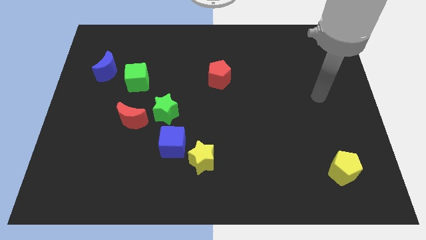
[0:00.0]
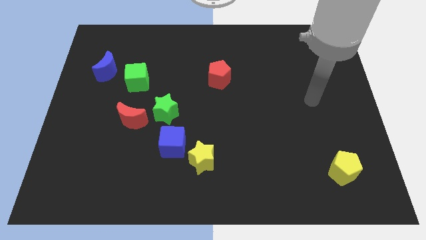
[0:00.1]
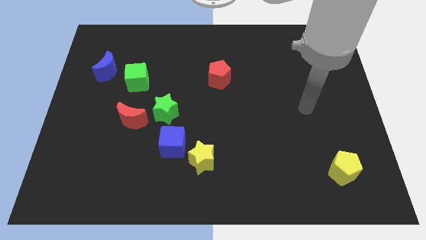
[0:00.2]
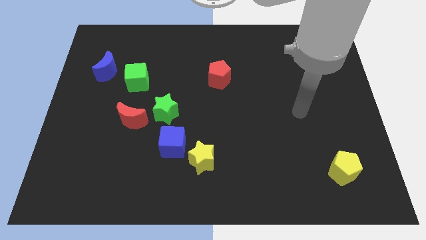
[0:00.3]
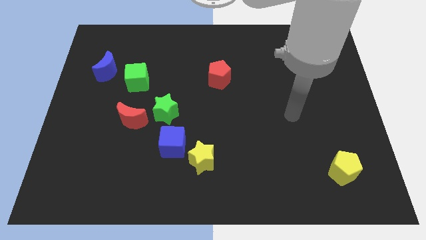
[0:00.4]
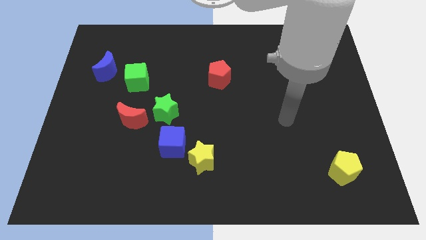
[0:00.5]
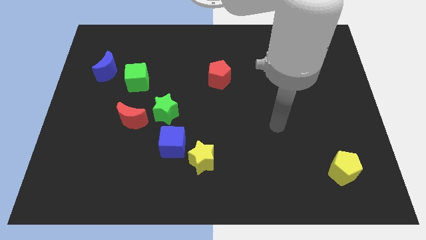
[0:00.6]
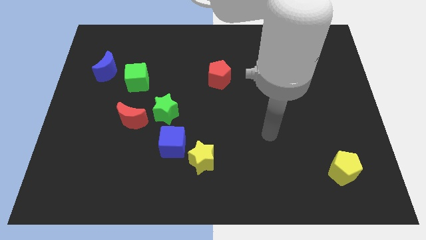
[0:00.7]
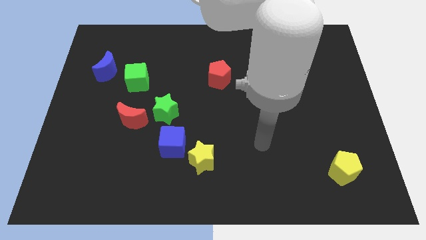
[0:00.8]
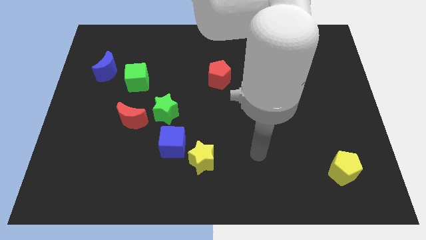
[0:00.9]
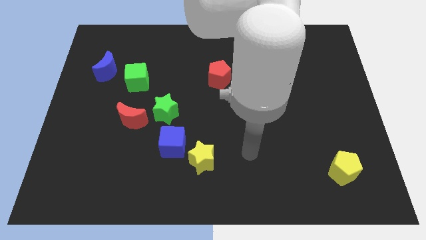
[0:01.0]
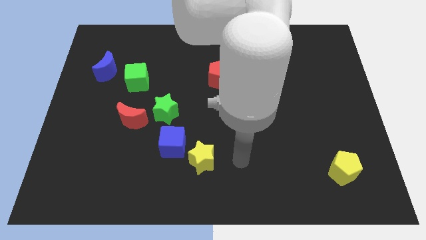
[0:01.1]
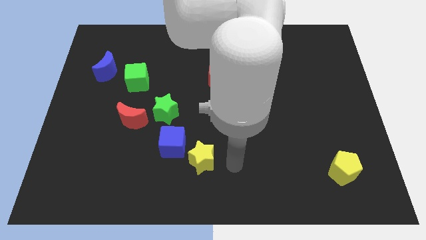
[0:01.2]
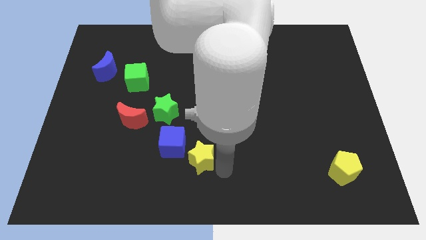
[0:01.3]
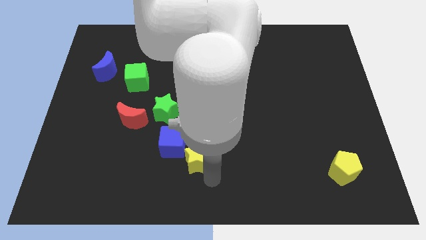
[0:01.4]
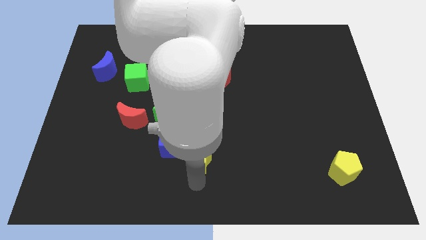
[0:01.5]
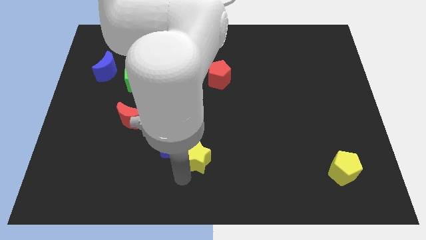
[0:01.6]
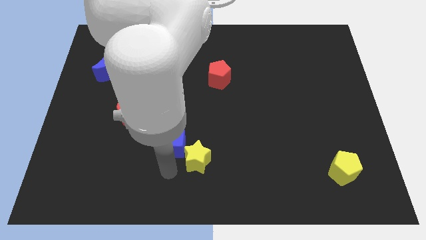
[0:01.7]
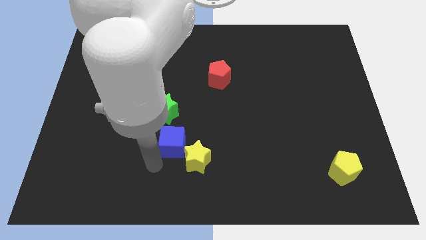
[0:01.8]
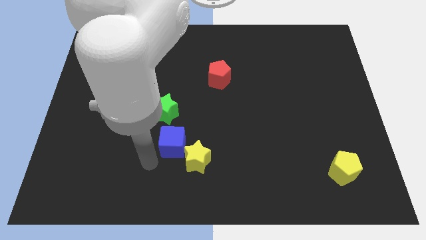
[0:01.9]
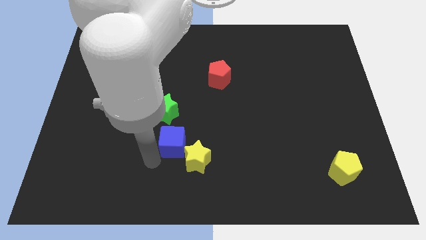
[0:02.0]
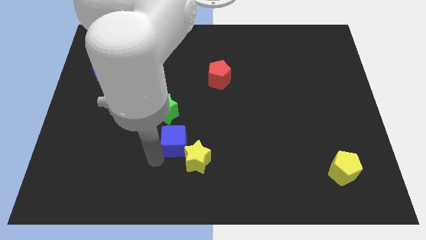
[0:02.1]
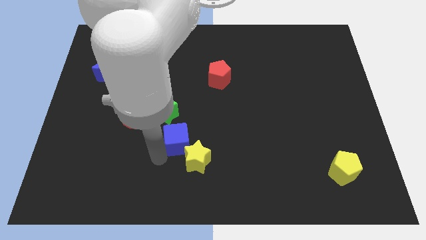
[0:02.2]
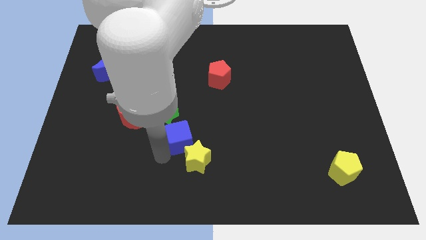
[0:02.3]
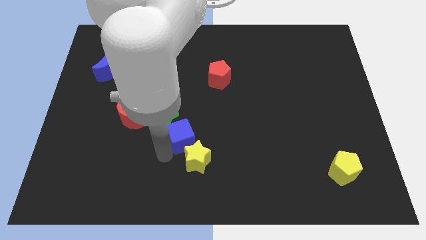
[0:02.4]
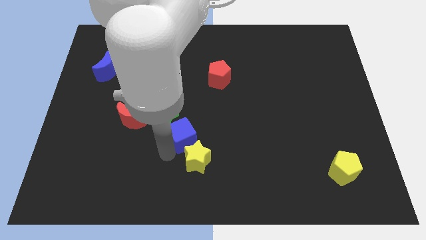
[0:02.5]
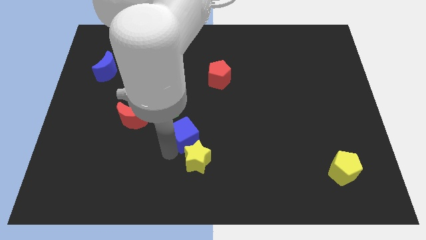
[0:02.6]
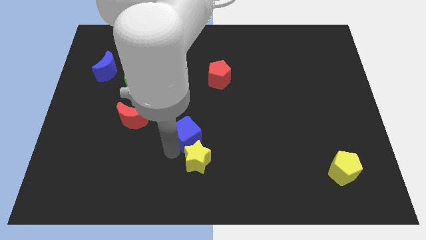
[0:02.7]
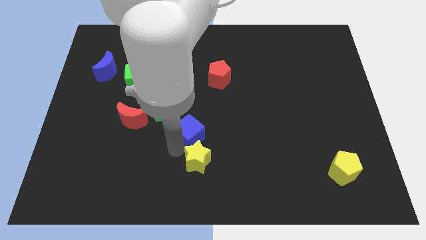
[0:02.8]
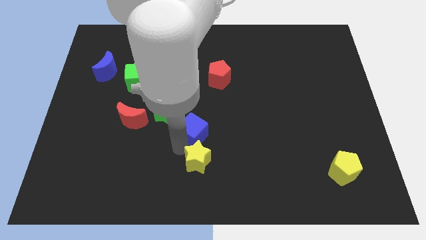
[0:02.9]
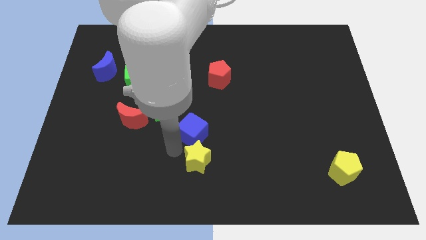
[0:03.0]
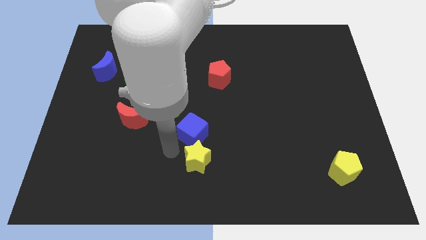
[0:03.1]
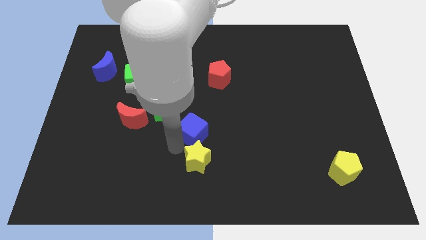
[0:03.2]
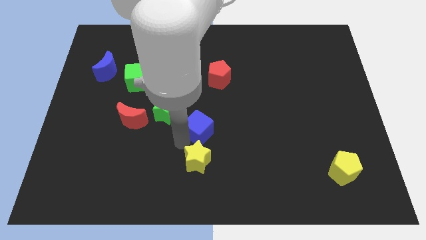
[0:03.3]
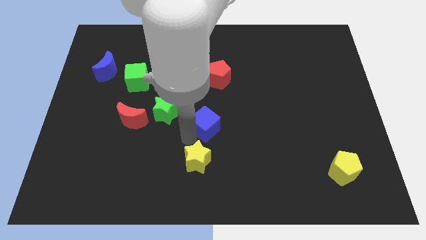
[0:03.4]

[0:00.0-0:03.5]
slightly slide the blue cube diagonally upwards and right

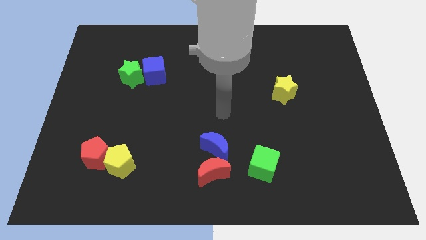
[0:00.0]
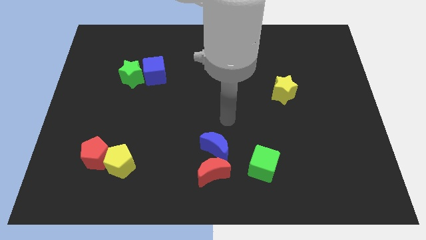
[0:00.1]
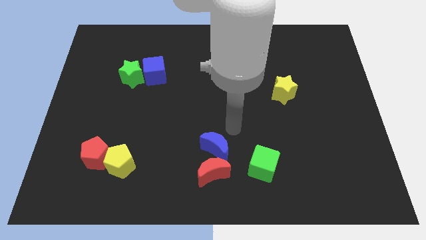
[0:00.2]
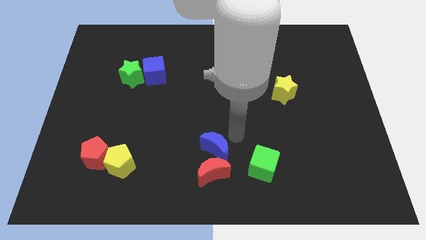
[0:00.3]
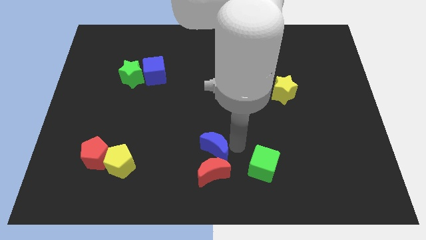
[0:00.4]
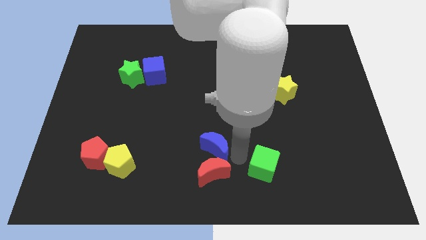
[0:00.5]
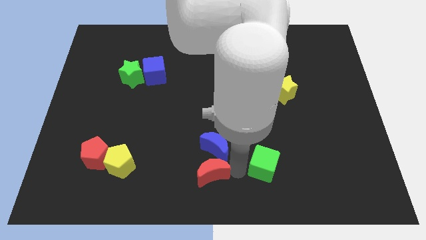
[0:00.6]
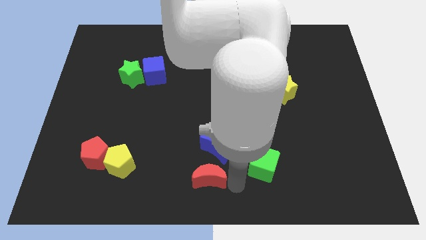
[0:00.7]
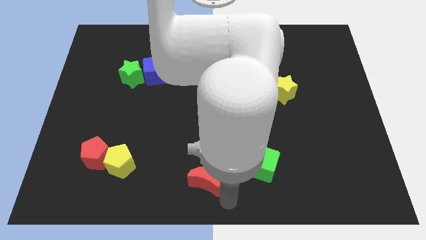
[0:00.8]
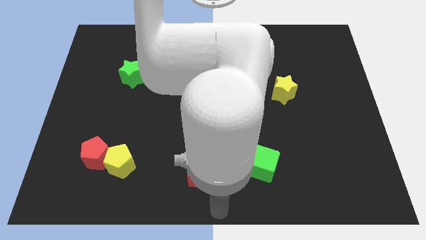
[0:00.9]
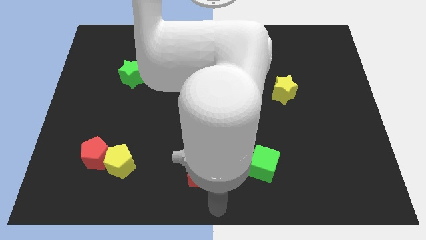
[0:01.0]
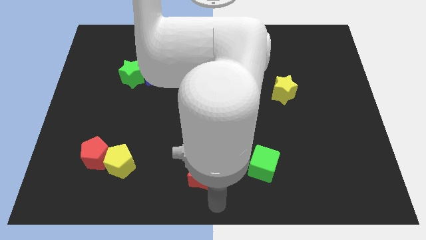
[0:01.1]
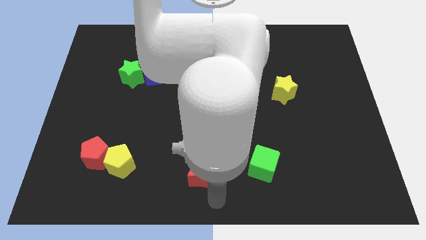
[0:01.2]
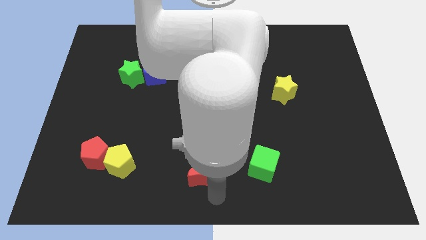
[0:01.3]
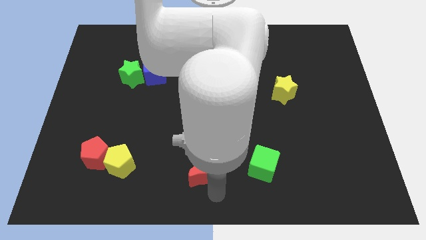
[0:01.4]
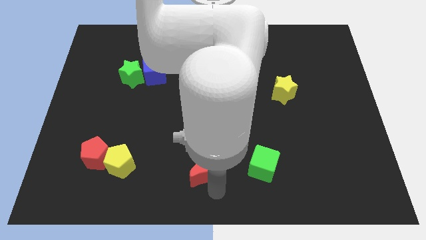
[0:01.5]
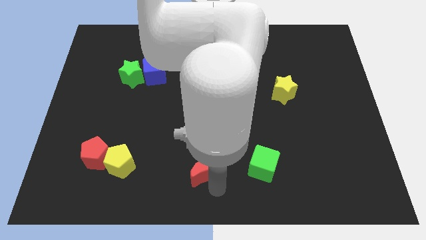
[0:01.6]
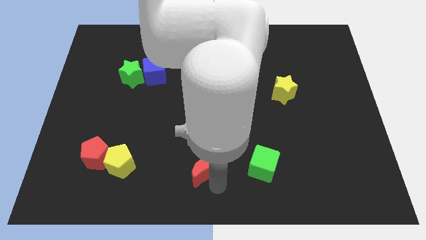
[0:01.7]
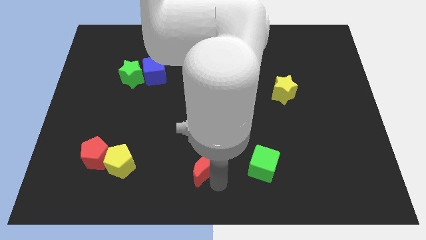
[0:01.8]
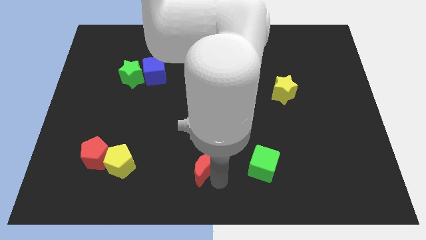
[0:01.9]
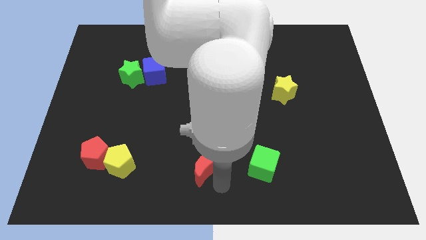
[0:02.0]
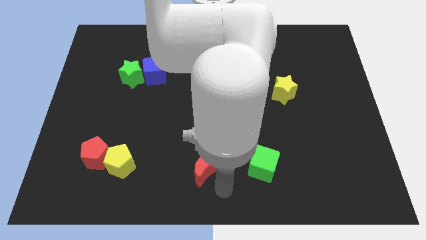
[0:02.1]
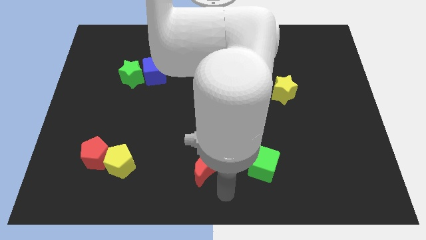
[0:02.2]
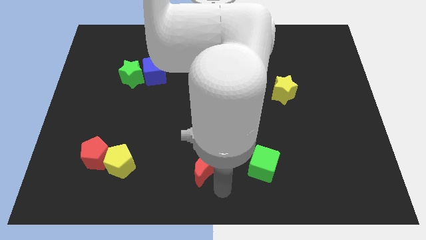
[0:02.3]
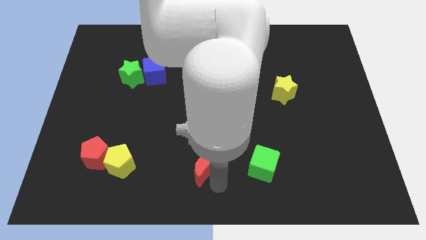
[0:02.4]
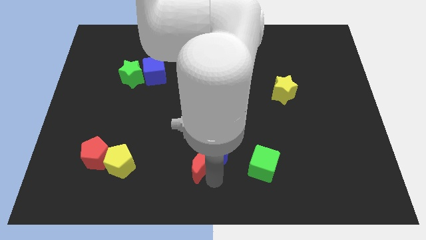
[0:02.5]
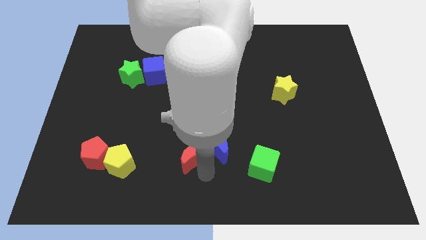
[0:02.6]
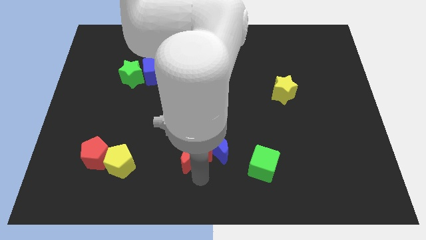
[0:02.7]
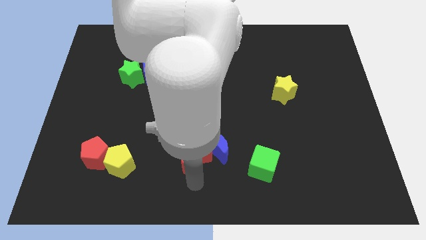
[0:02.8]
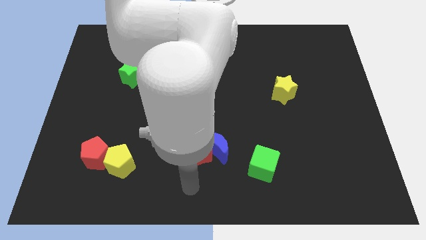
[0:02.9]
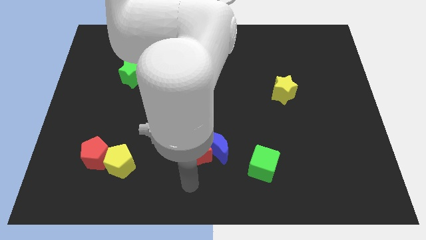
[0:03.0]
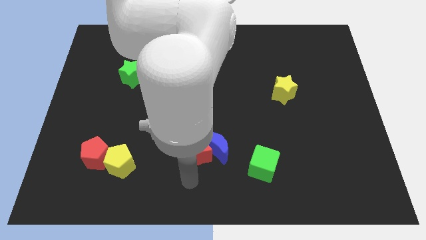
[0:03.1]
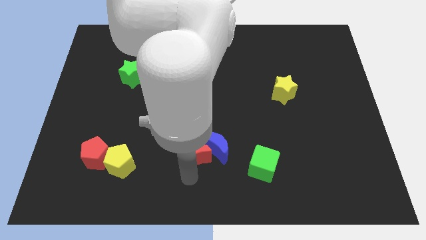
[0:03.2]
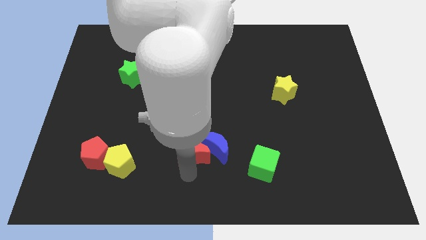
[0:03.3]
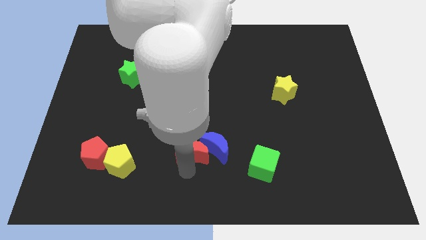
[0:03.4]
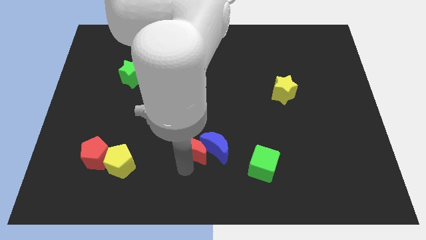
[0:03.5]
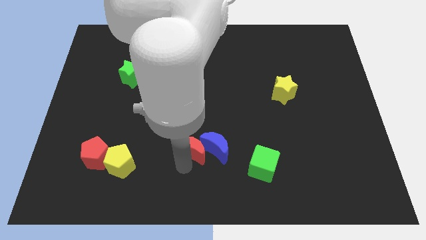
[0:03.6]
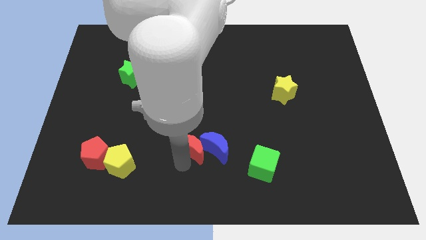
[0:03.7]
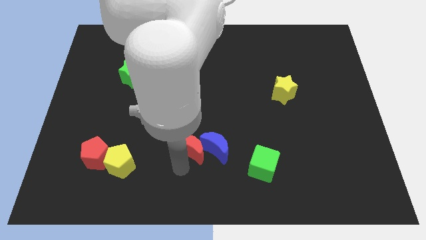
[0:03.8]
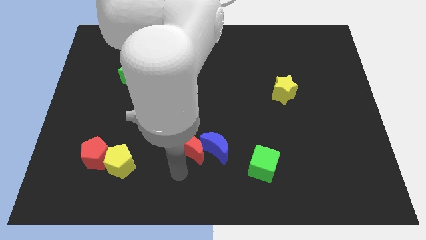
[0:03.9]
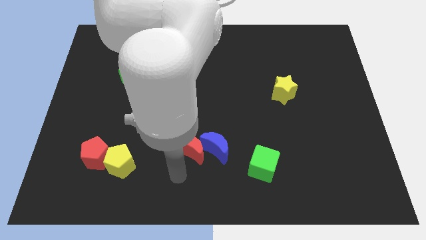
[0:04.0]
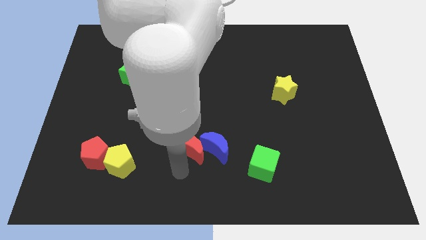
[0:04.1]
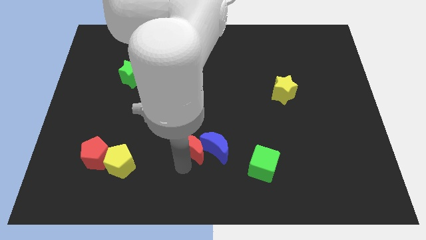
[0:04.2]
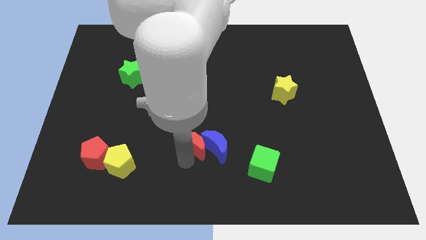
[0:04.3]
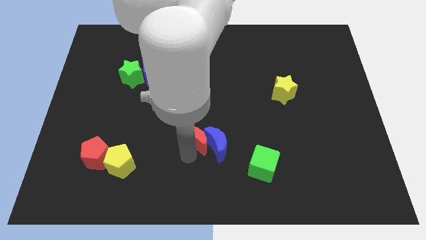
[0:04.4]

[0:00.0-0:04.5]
slightly push the red moon upwards

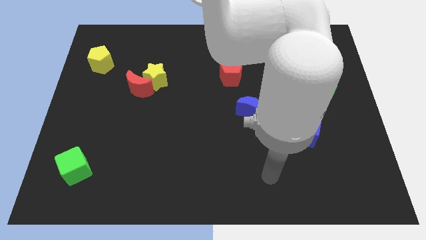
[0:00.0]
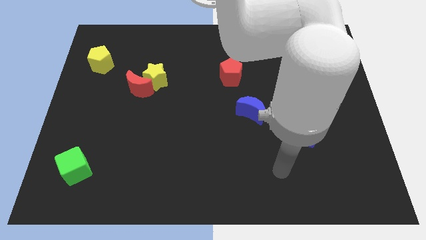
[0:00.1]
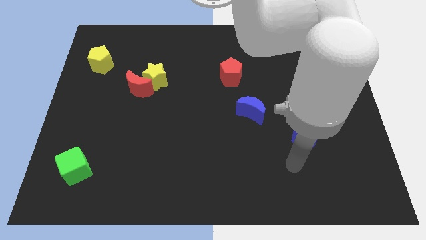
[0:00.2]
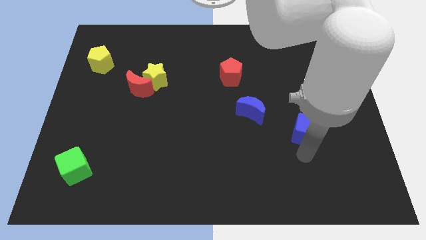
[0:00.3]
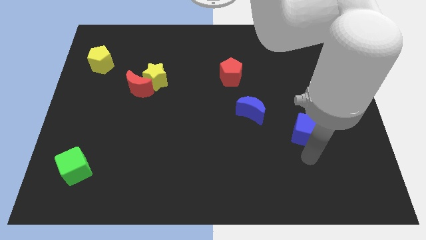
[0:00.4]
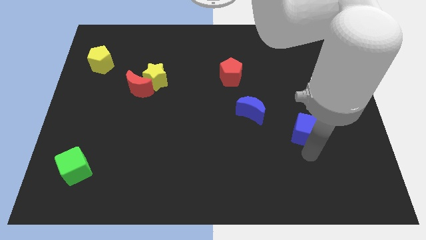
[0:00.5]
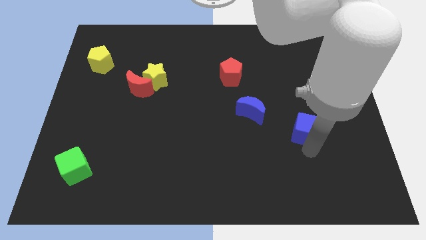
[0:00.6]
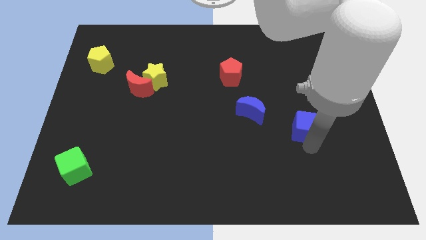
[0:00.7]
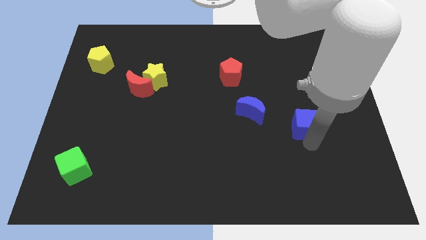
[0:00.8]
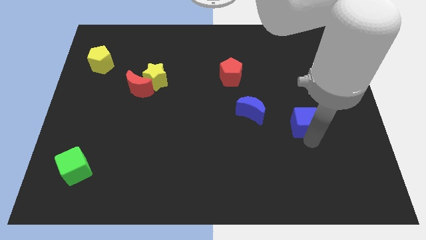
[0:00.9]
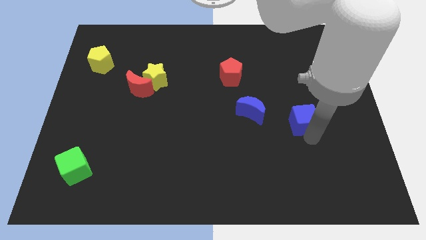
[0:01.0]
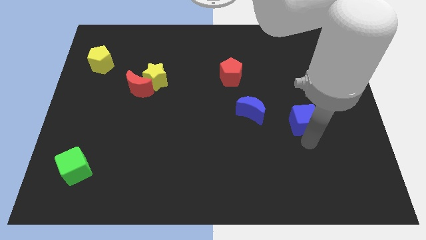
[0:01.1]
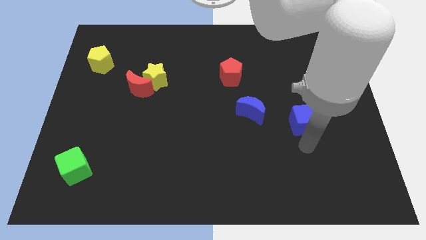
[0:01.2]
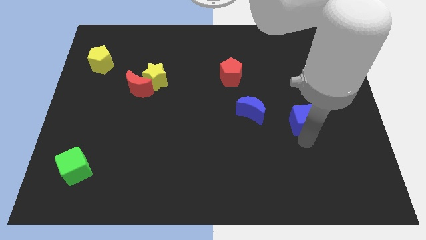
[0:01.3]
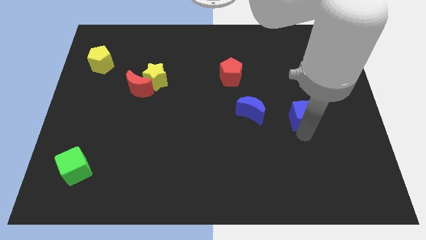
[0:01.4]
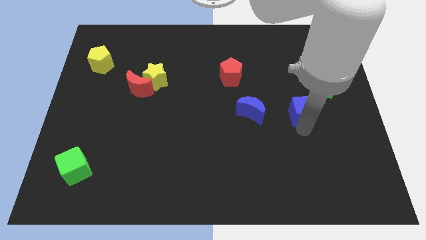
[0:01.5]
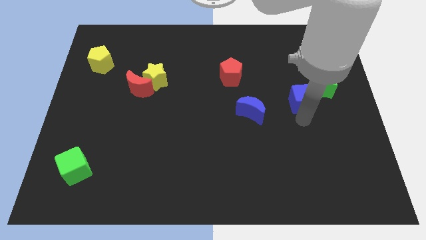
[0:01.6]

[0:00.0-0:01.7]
move the blue cube a little bit up
